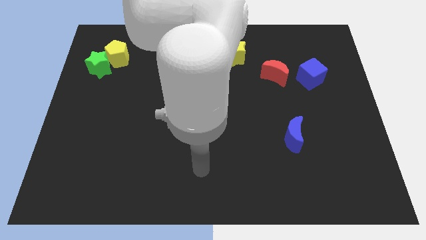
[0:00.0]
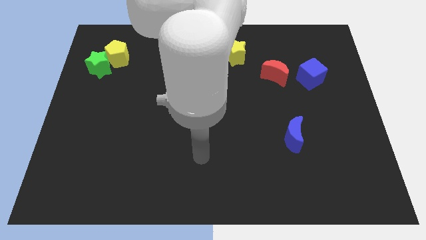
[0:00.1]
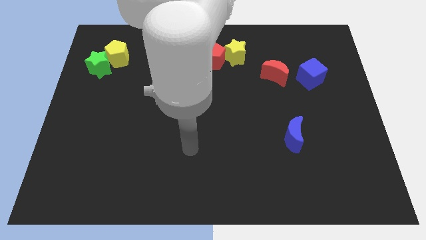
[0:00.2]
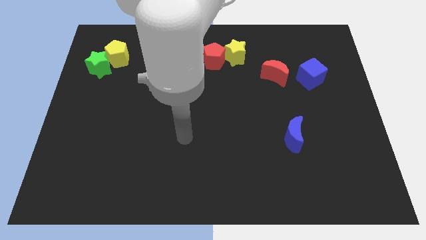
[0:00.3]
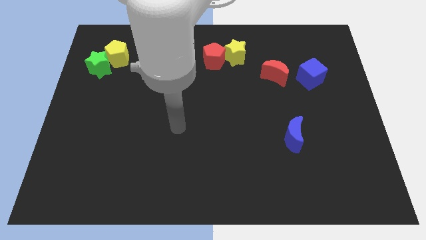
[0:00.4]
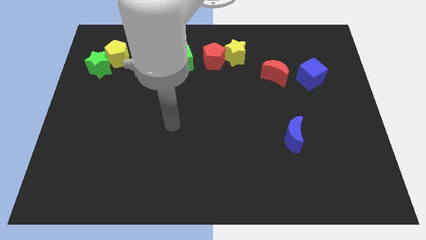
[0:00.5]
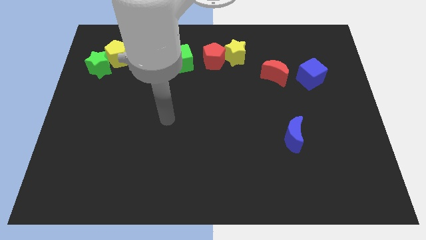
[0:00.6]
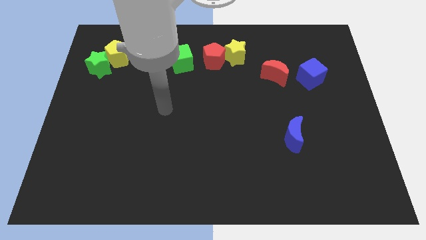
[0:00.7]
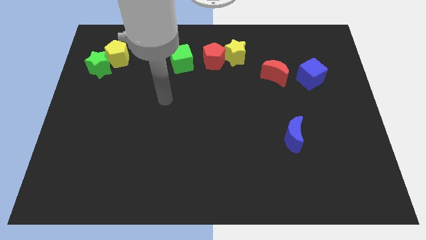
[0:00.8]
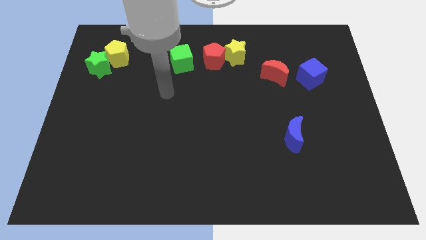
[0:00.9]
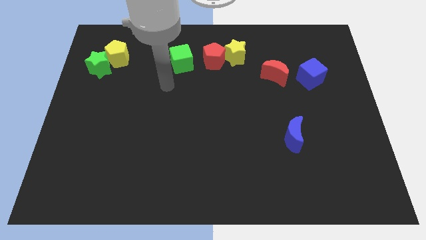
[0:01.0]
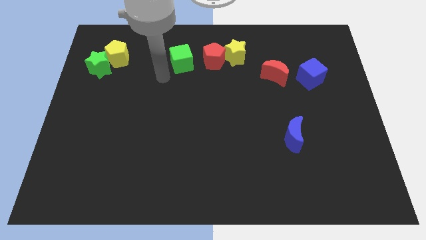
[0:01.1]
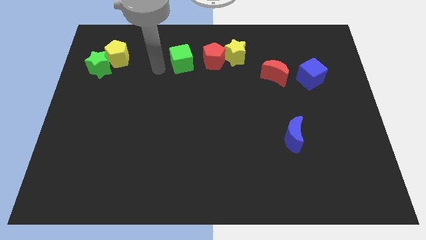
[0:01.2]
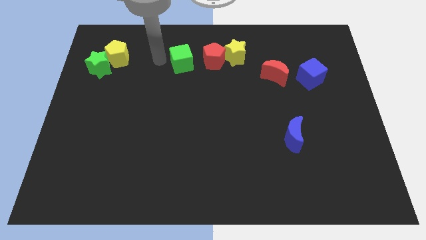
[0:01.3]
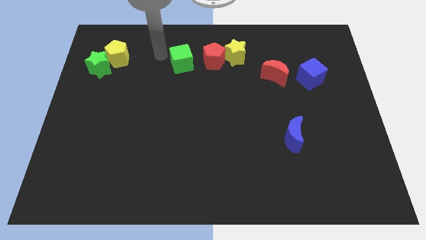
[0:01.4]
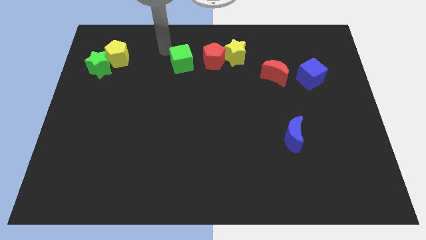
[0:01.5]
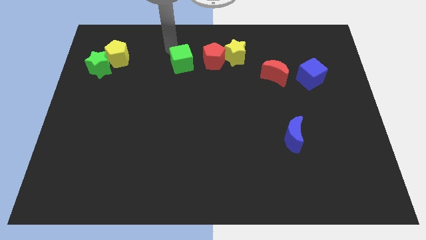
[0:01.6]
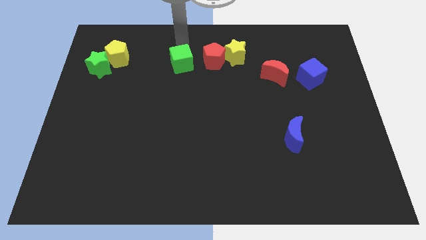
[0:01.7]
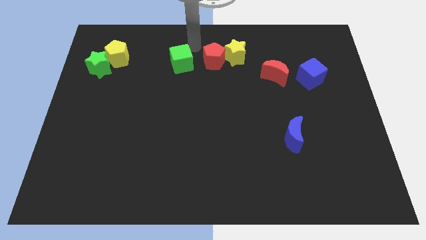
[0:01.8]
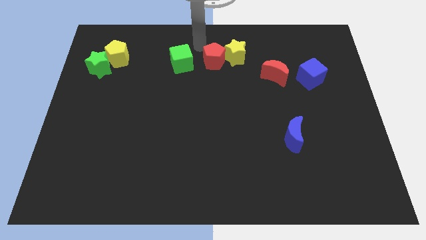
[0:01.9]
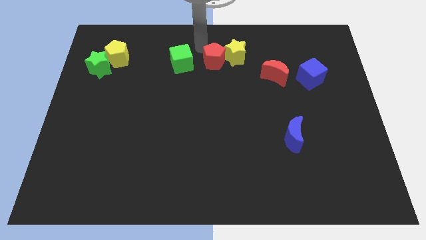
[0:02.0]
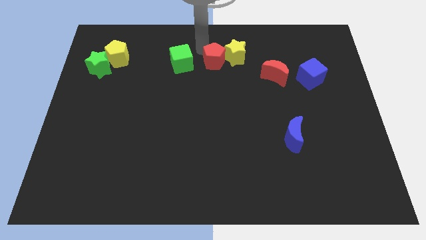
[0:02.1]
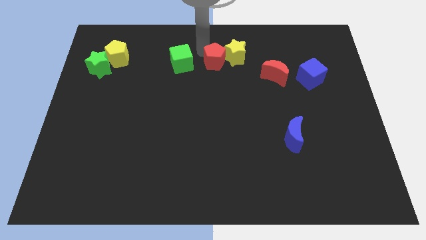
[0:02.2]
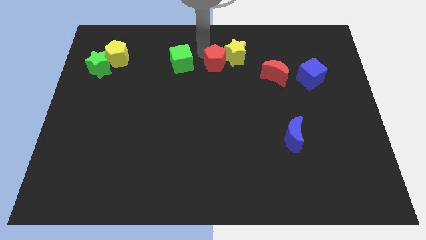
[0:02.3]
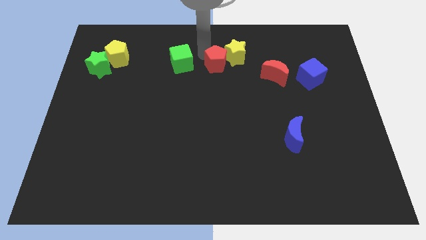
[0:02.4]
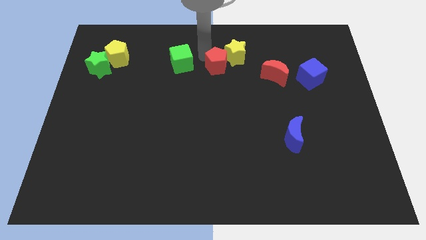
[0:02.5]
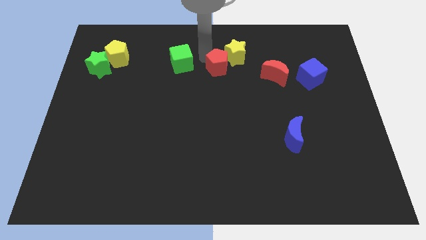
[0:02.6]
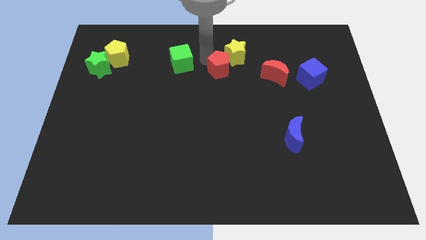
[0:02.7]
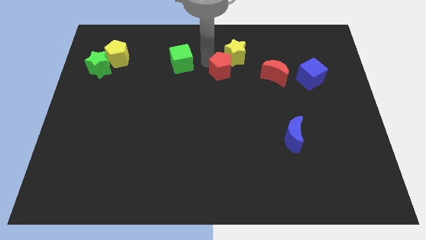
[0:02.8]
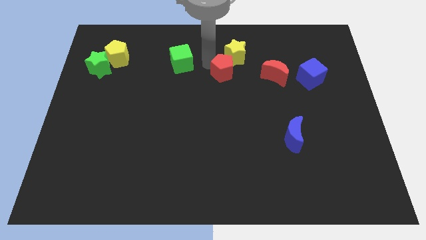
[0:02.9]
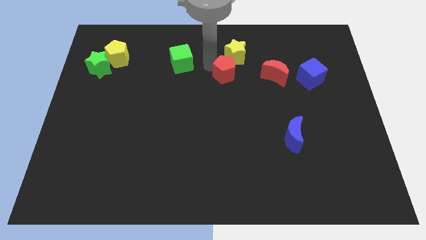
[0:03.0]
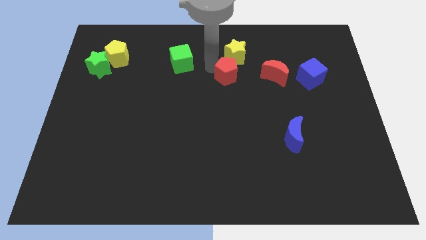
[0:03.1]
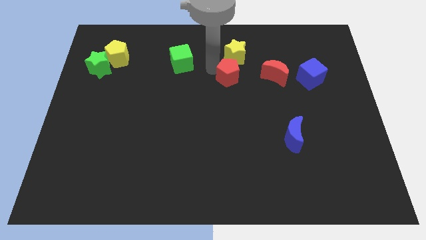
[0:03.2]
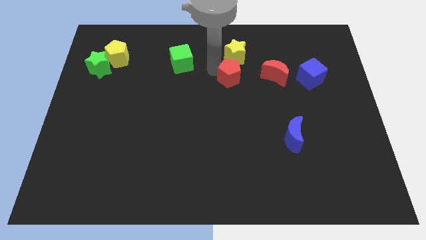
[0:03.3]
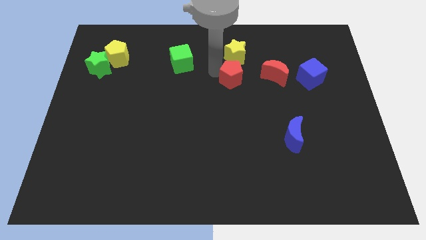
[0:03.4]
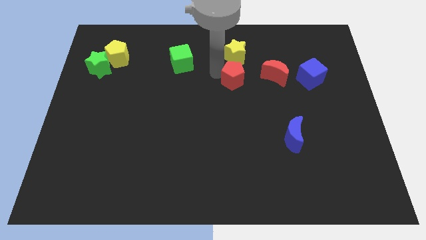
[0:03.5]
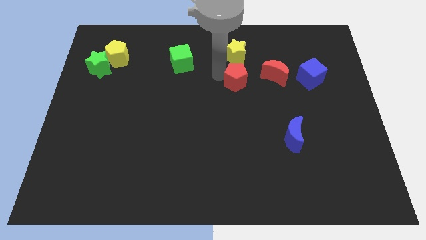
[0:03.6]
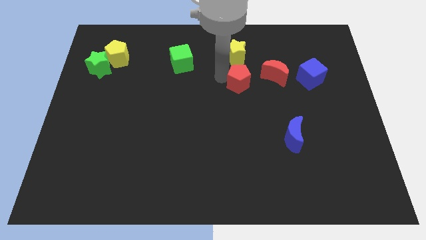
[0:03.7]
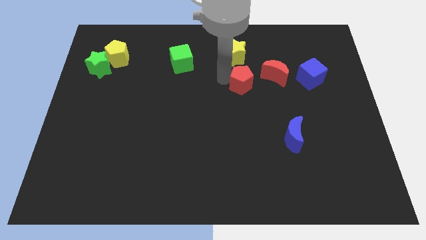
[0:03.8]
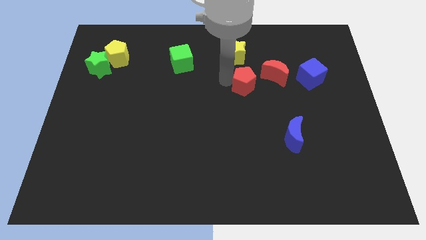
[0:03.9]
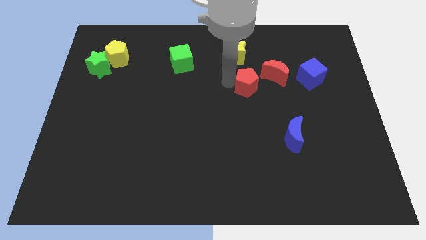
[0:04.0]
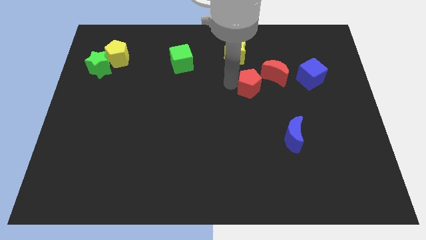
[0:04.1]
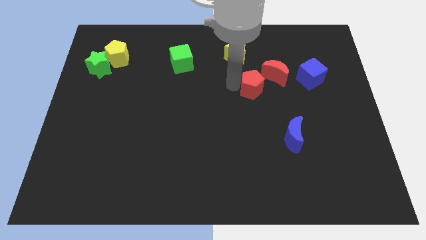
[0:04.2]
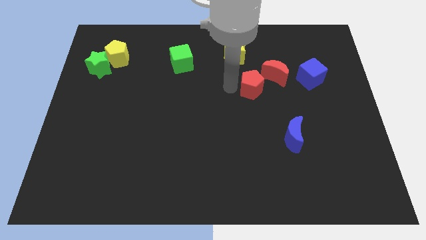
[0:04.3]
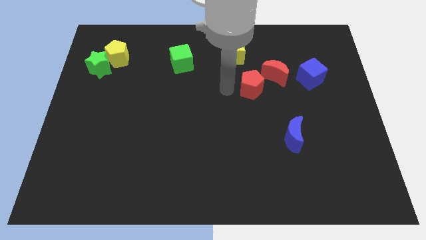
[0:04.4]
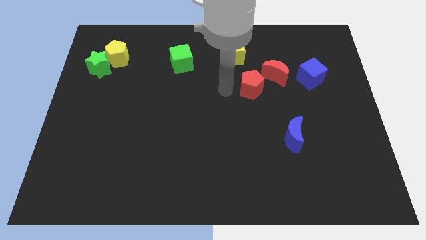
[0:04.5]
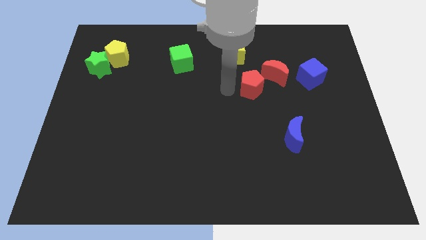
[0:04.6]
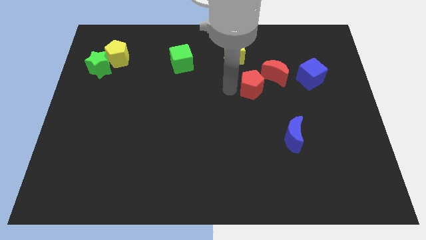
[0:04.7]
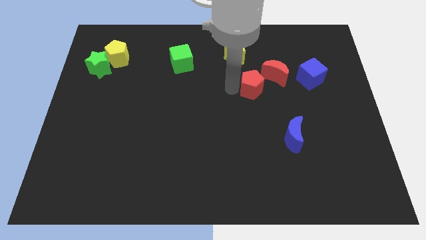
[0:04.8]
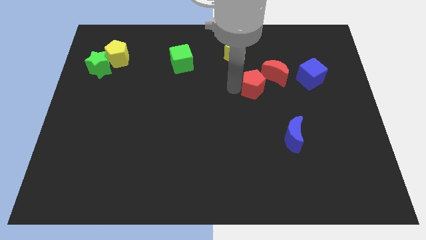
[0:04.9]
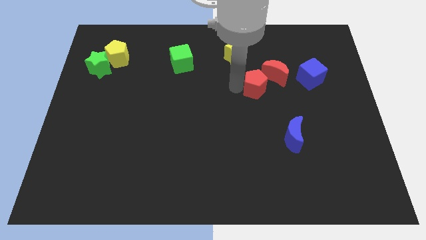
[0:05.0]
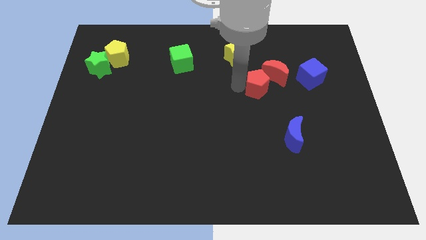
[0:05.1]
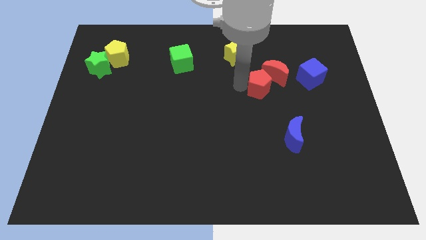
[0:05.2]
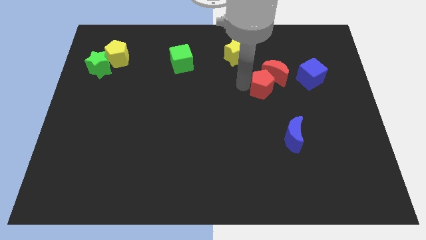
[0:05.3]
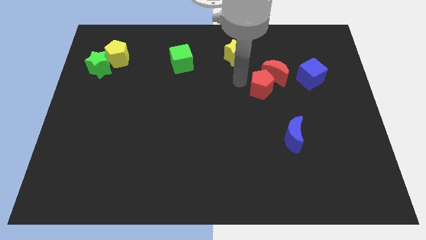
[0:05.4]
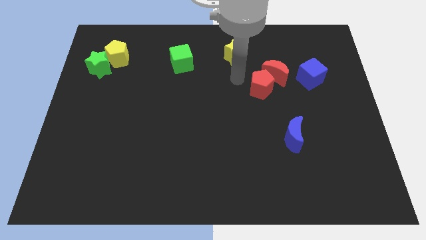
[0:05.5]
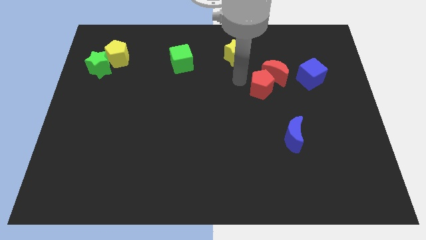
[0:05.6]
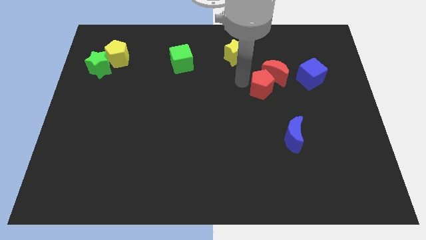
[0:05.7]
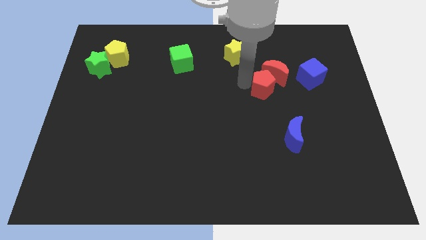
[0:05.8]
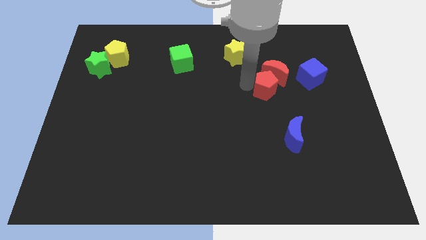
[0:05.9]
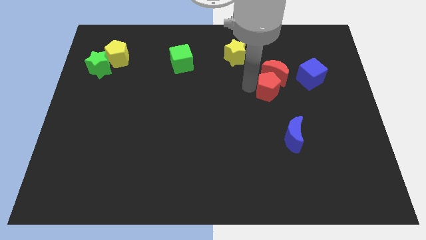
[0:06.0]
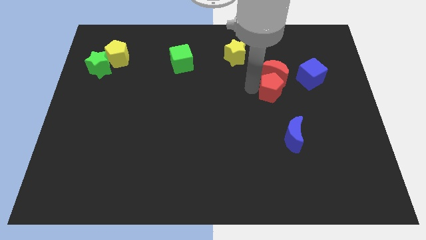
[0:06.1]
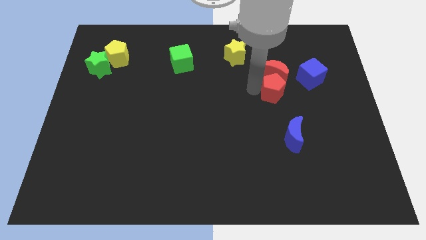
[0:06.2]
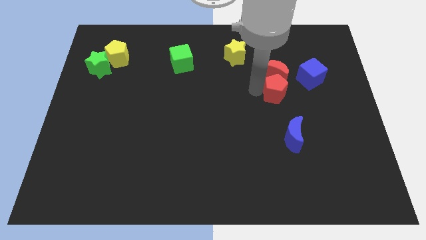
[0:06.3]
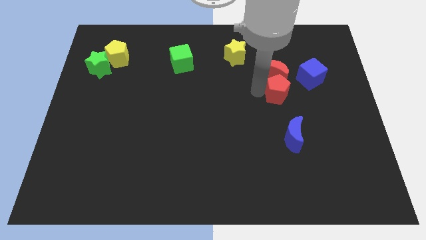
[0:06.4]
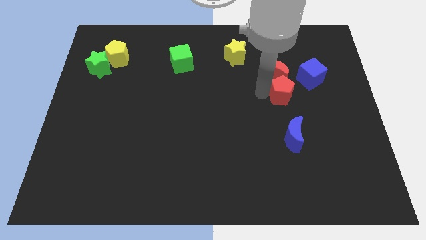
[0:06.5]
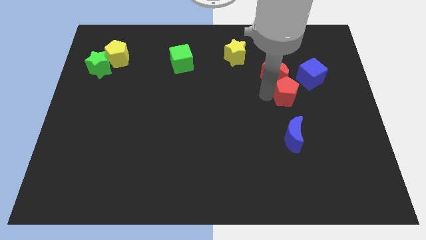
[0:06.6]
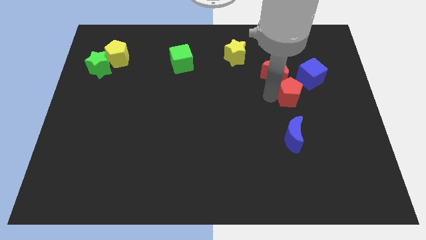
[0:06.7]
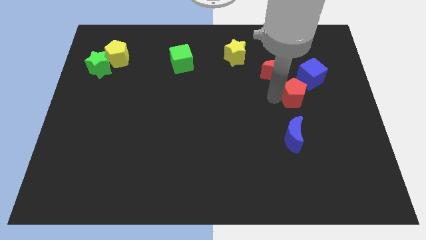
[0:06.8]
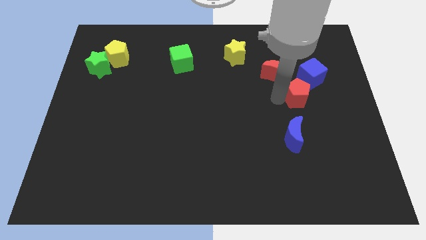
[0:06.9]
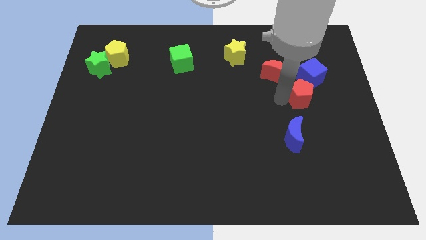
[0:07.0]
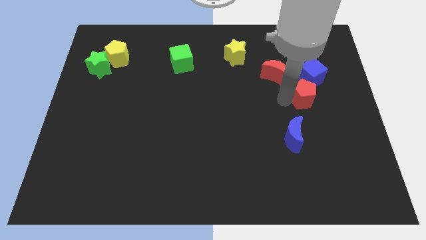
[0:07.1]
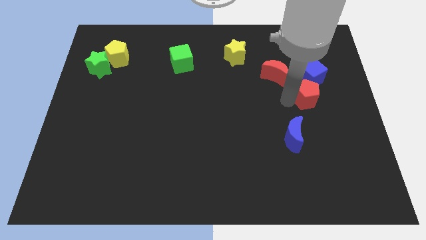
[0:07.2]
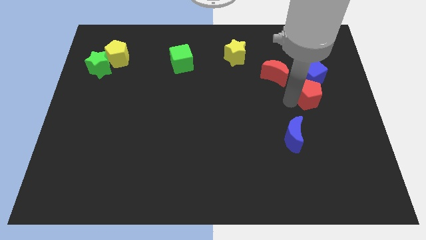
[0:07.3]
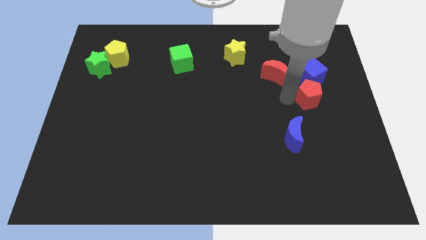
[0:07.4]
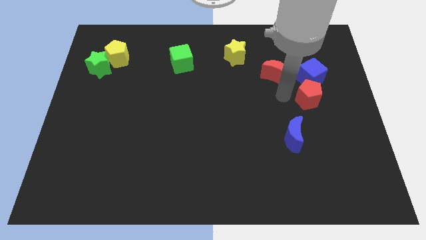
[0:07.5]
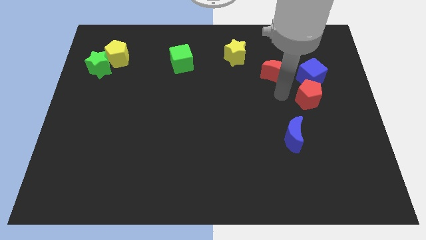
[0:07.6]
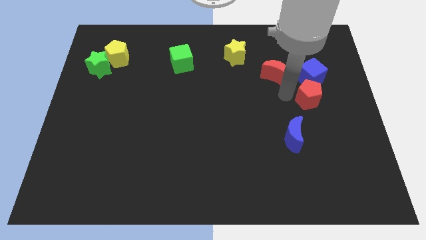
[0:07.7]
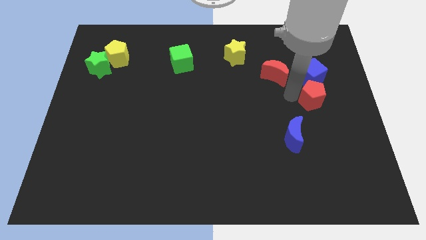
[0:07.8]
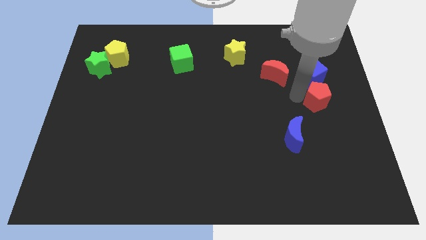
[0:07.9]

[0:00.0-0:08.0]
slide the red pentagon to the right side
